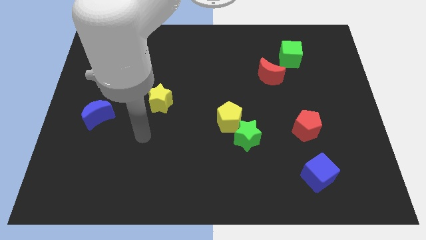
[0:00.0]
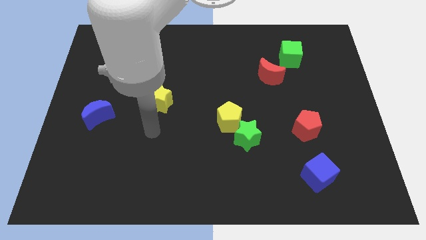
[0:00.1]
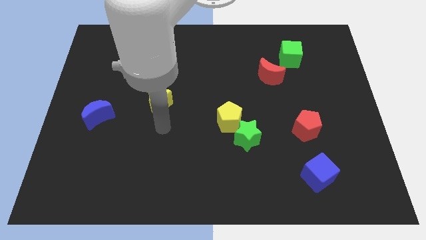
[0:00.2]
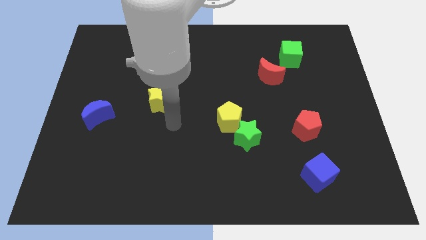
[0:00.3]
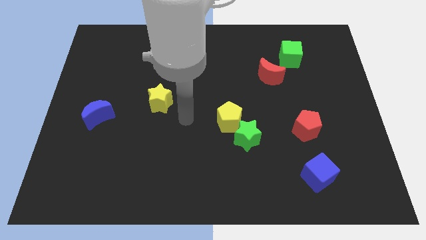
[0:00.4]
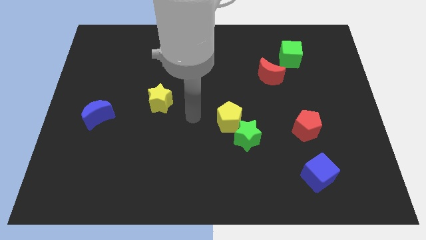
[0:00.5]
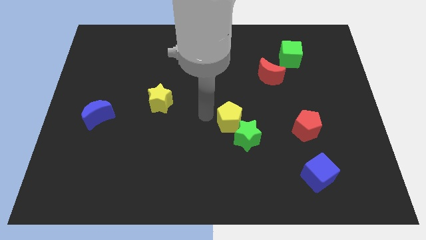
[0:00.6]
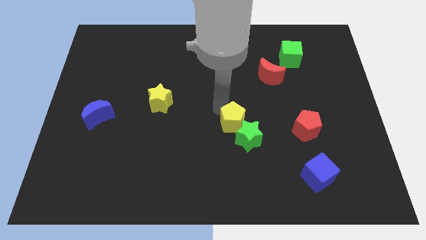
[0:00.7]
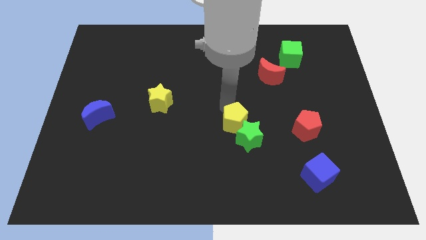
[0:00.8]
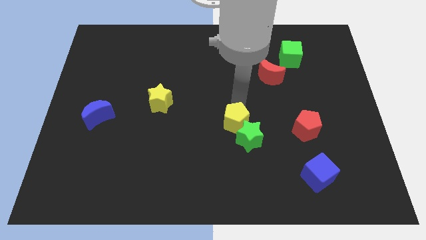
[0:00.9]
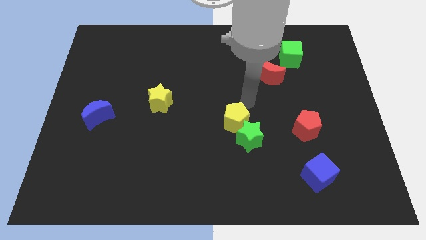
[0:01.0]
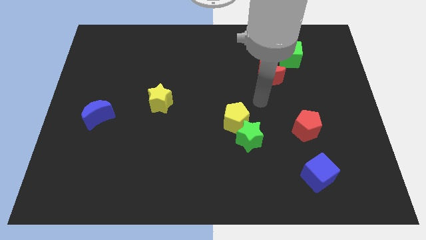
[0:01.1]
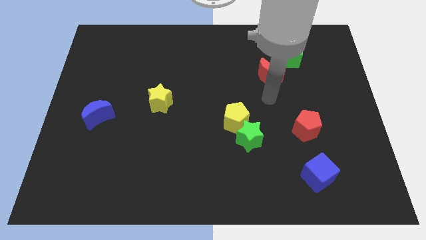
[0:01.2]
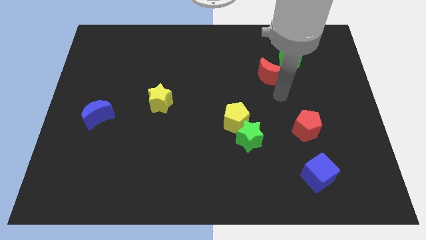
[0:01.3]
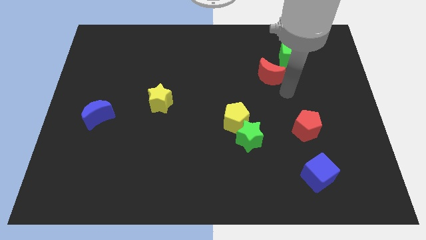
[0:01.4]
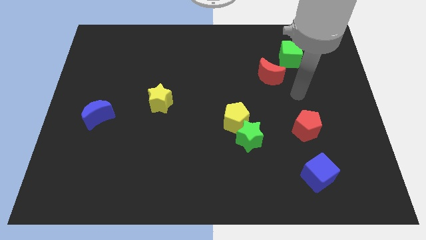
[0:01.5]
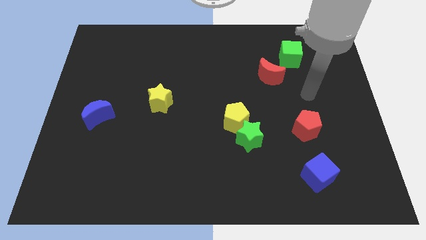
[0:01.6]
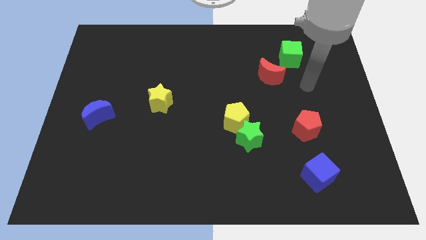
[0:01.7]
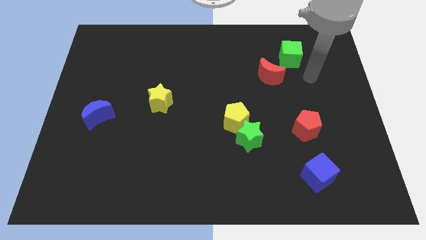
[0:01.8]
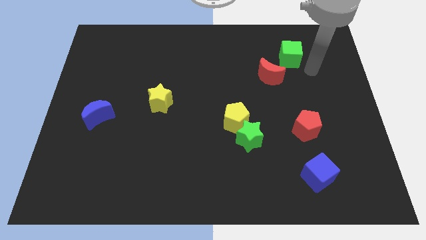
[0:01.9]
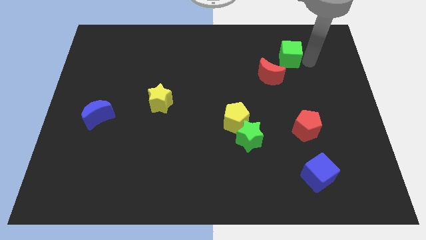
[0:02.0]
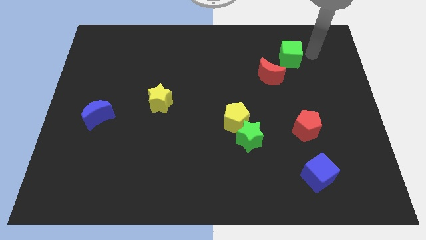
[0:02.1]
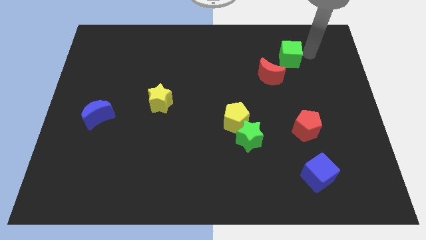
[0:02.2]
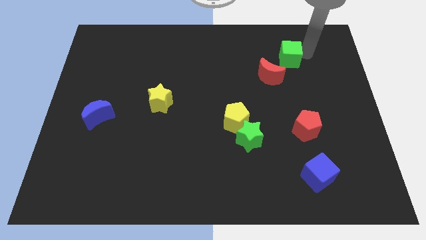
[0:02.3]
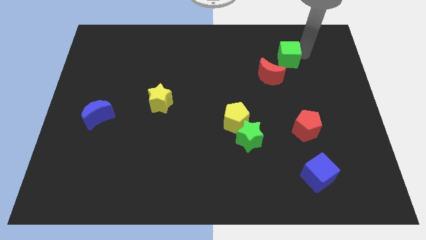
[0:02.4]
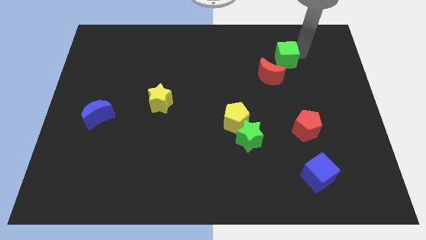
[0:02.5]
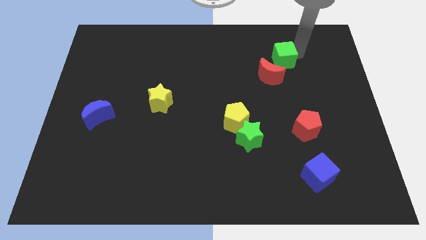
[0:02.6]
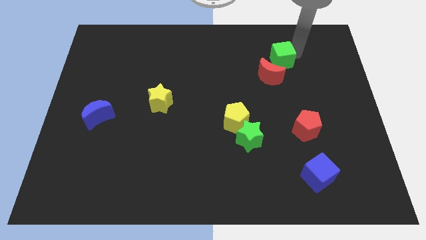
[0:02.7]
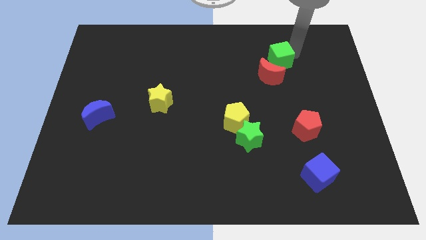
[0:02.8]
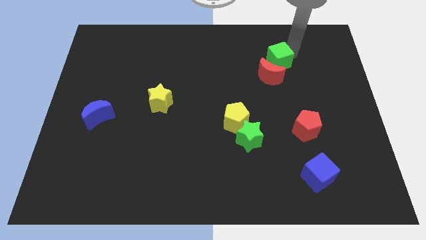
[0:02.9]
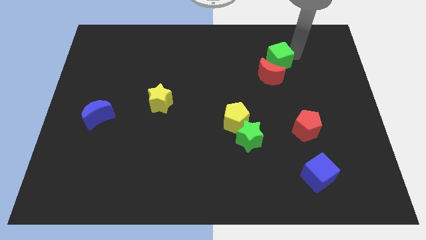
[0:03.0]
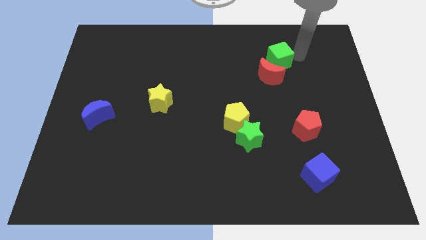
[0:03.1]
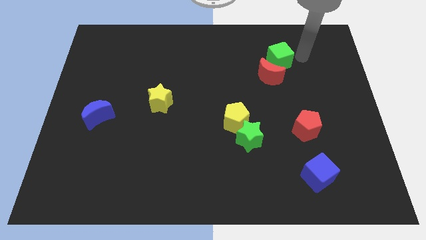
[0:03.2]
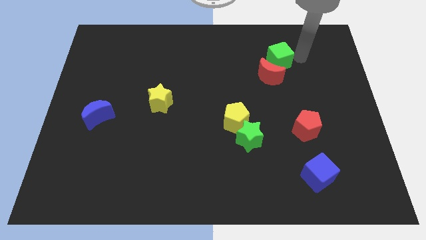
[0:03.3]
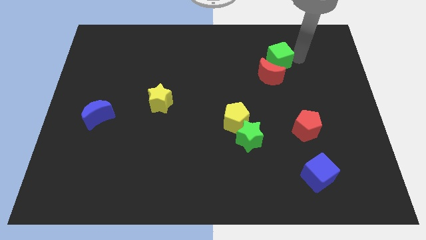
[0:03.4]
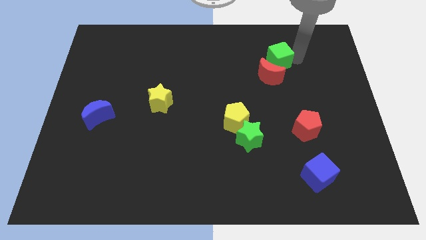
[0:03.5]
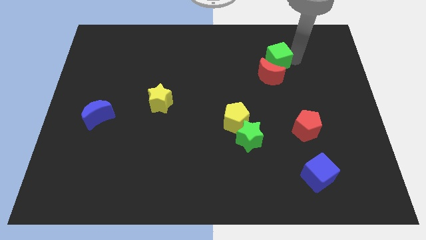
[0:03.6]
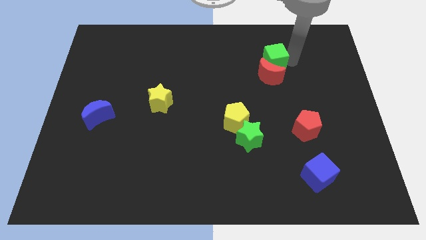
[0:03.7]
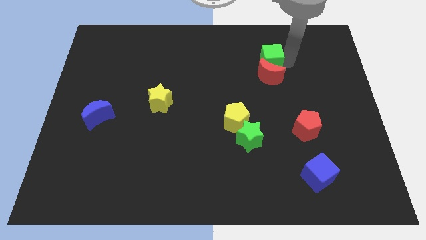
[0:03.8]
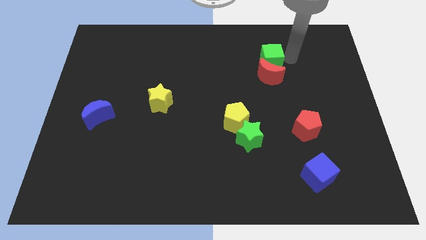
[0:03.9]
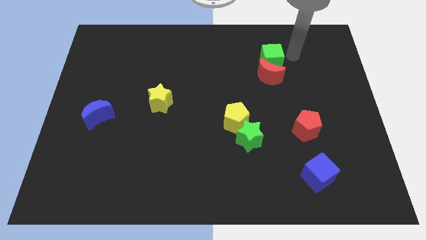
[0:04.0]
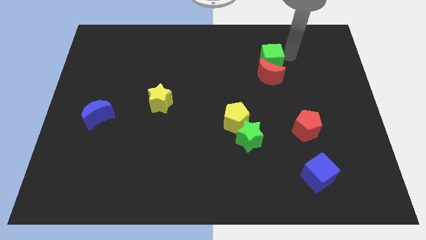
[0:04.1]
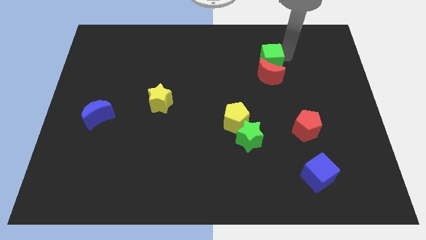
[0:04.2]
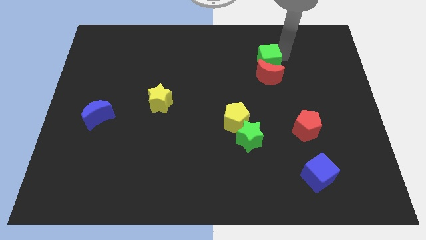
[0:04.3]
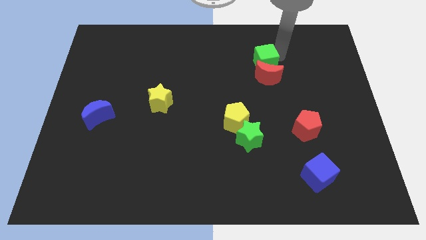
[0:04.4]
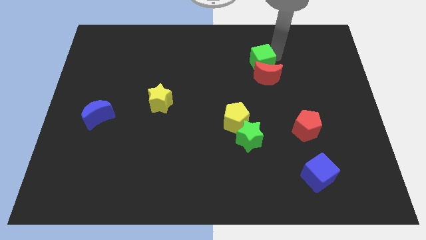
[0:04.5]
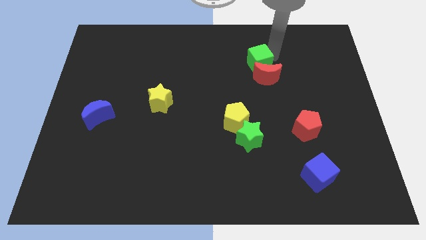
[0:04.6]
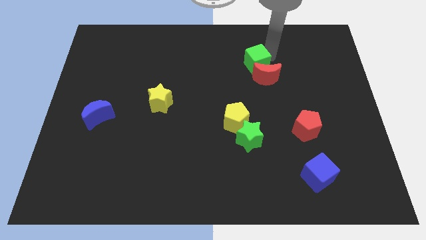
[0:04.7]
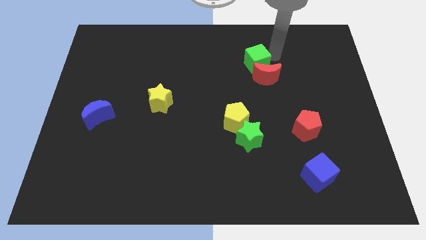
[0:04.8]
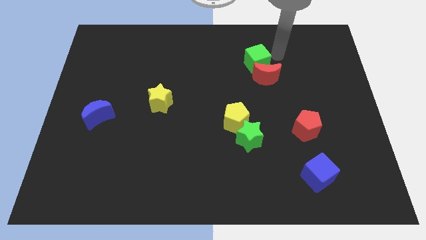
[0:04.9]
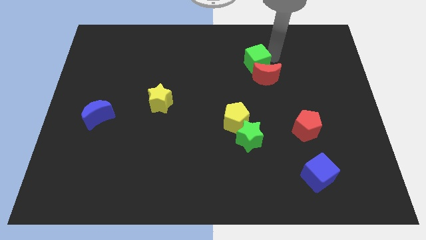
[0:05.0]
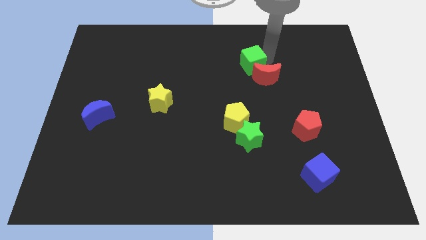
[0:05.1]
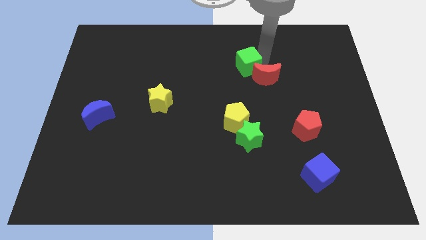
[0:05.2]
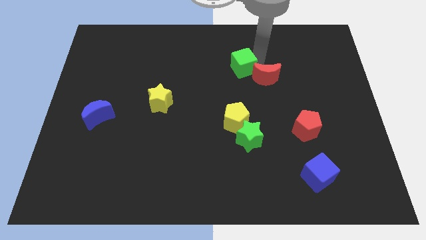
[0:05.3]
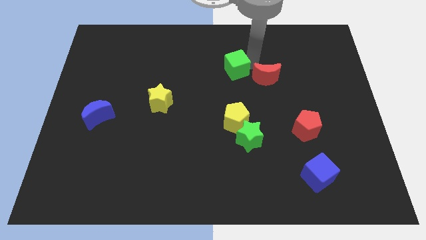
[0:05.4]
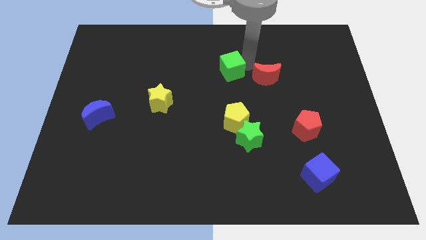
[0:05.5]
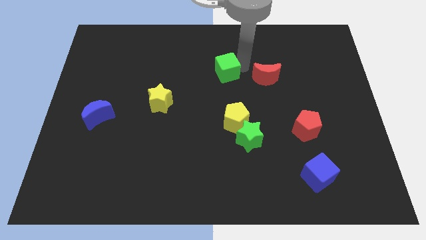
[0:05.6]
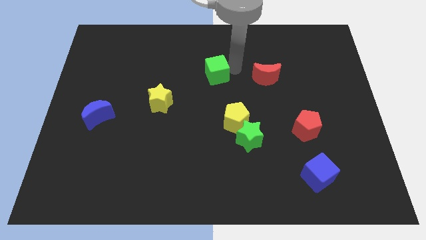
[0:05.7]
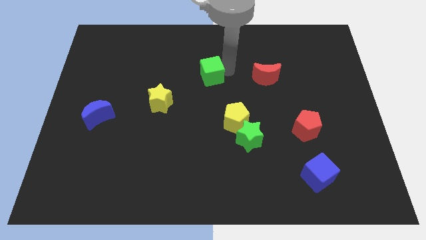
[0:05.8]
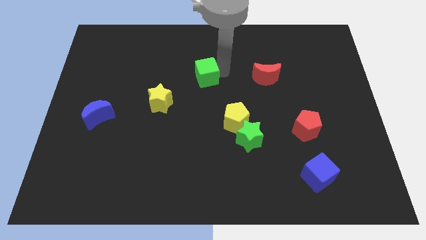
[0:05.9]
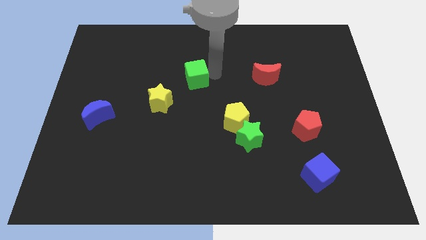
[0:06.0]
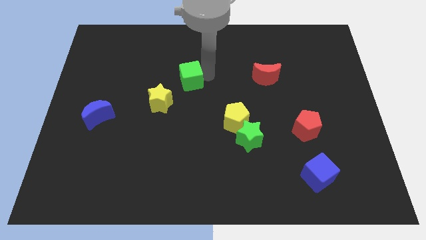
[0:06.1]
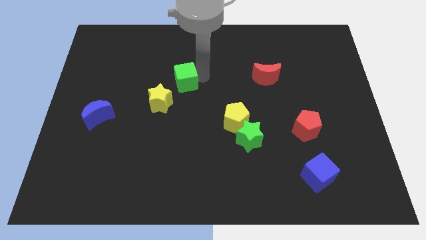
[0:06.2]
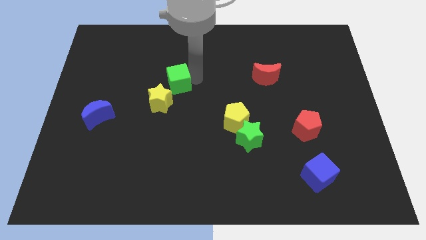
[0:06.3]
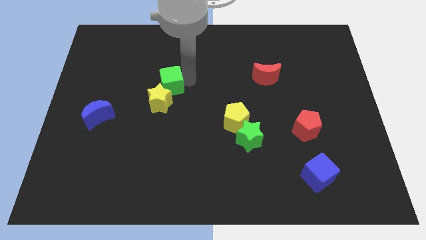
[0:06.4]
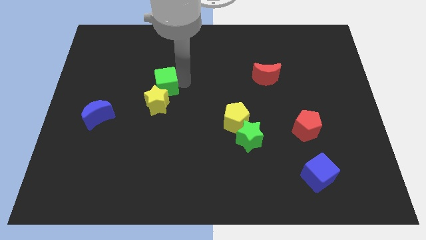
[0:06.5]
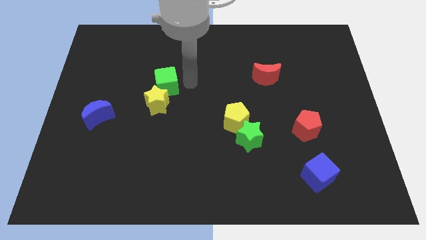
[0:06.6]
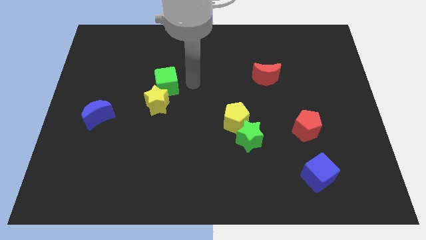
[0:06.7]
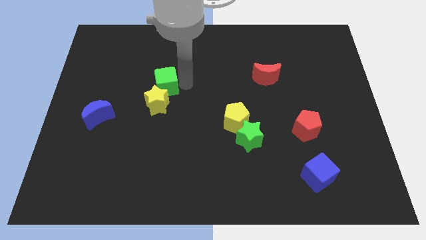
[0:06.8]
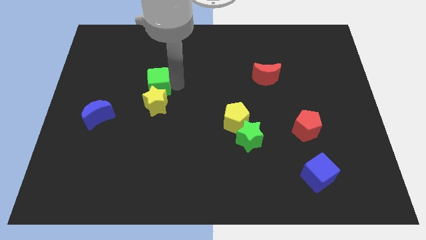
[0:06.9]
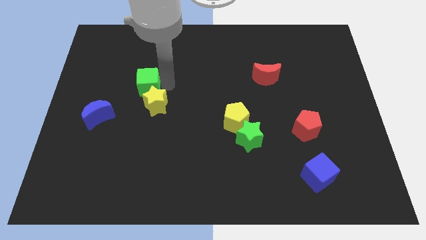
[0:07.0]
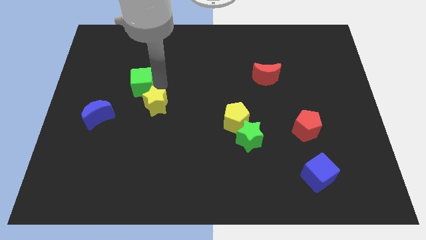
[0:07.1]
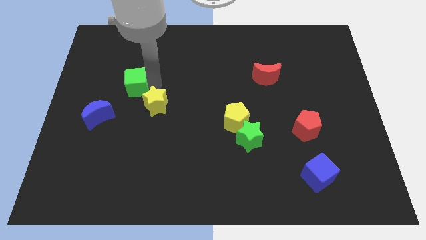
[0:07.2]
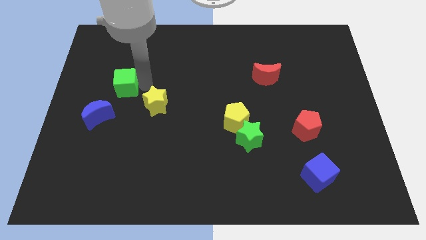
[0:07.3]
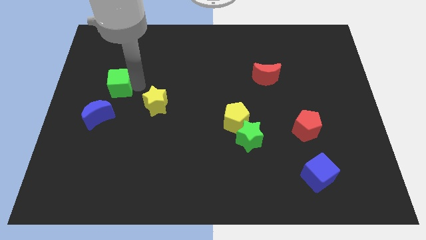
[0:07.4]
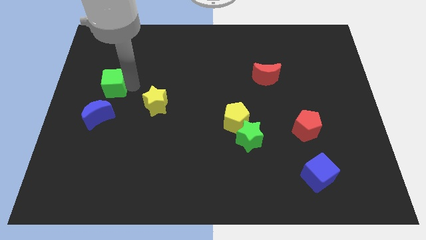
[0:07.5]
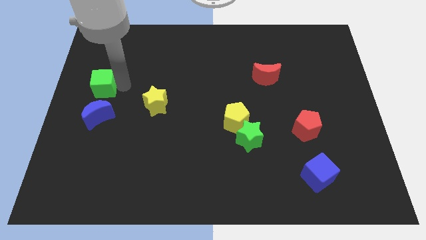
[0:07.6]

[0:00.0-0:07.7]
put the green cube to the center left

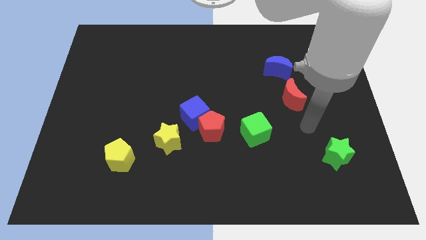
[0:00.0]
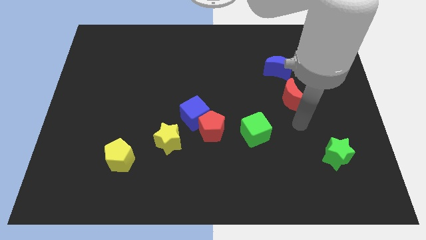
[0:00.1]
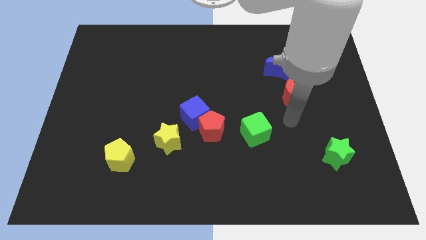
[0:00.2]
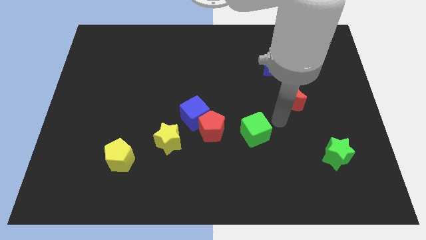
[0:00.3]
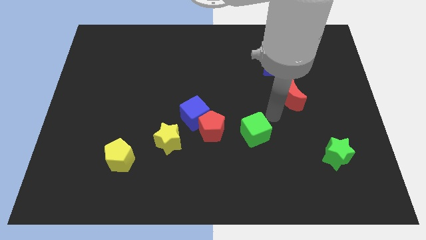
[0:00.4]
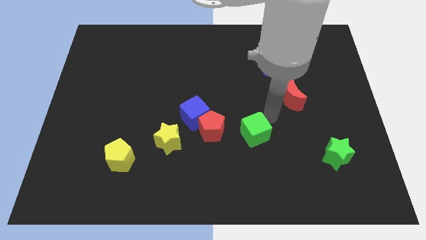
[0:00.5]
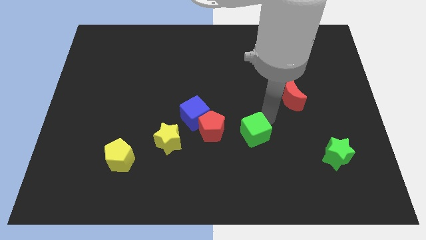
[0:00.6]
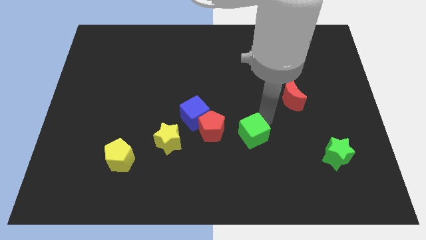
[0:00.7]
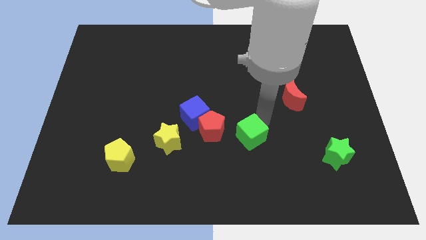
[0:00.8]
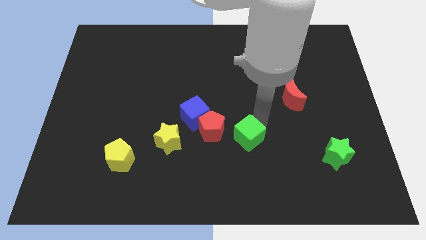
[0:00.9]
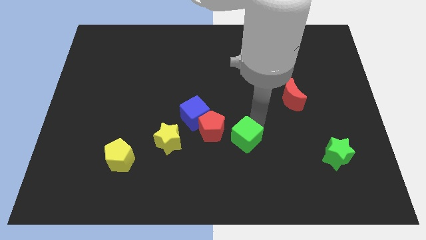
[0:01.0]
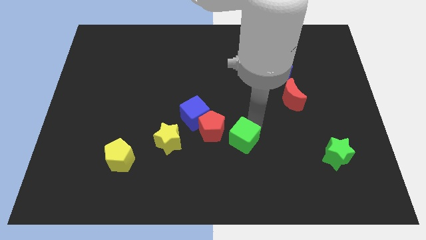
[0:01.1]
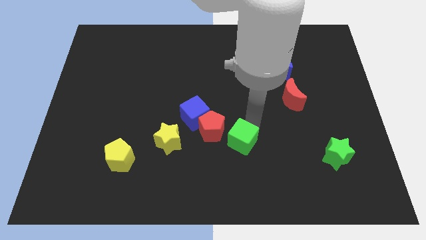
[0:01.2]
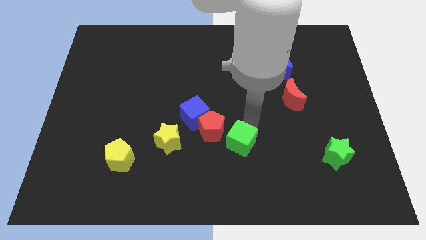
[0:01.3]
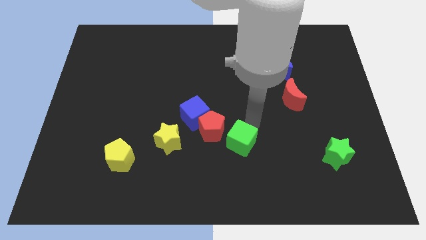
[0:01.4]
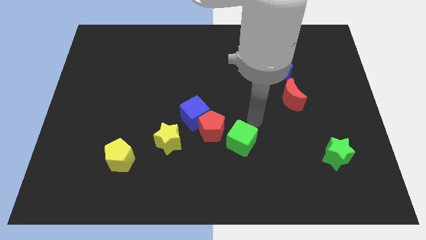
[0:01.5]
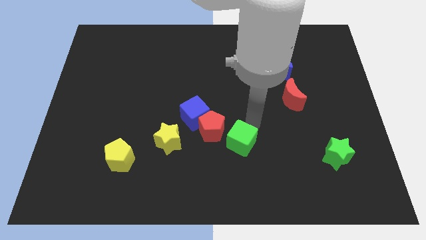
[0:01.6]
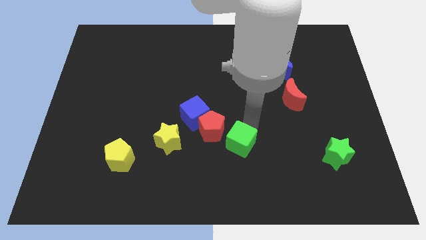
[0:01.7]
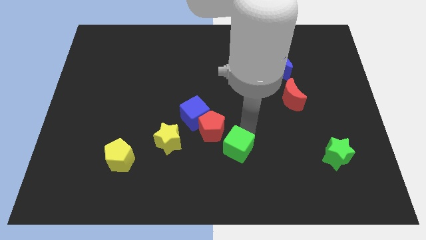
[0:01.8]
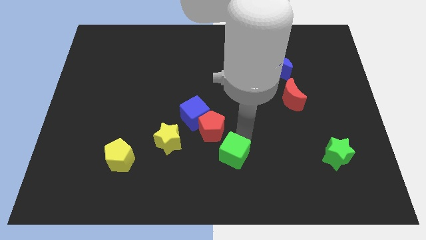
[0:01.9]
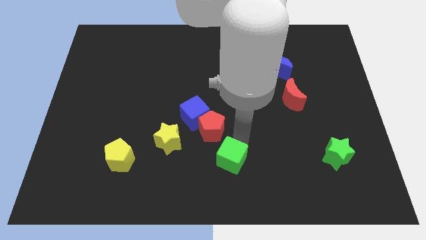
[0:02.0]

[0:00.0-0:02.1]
push the green cube to the bottom side
